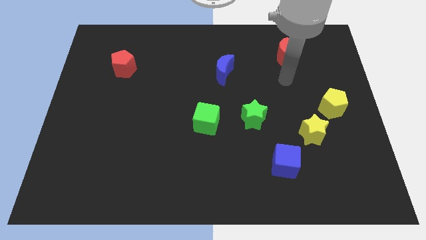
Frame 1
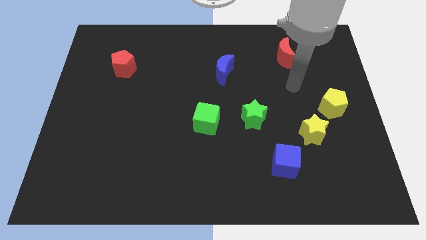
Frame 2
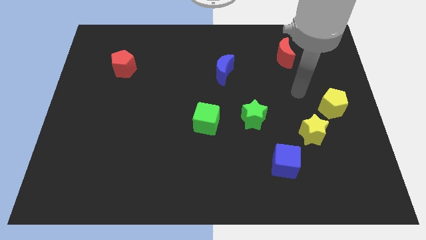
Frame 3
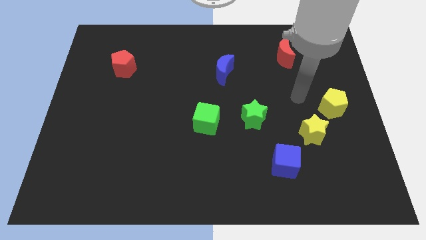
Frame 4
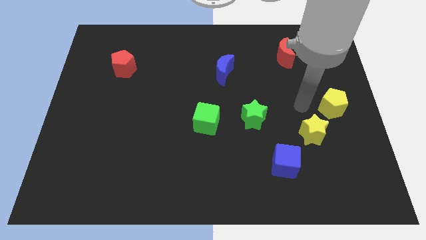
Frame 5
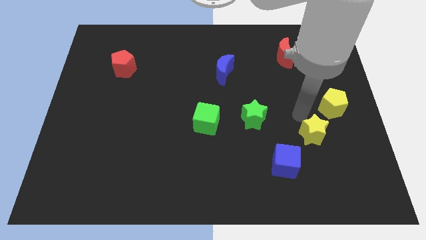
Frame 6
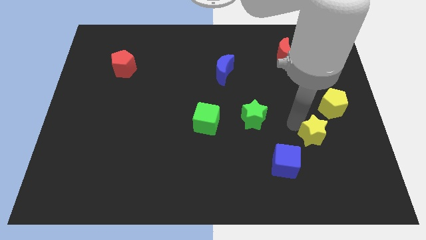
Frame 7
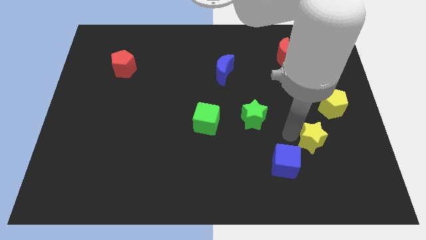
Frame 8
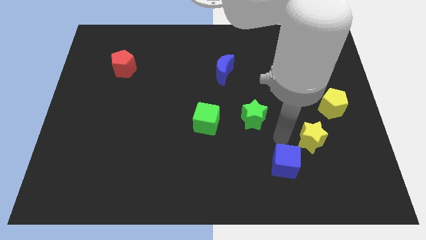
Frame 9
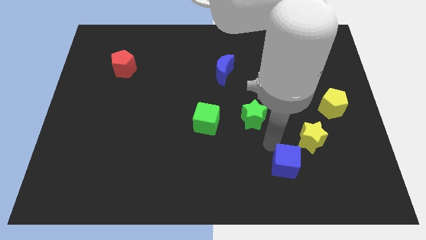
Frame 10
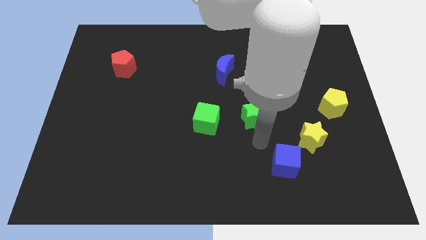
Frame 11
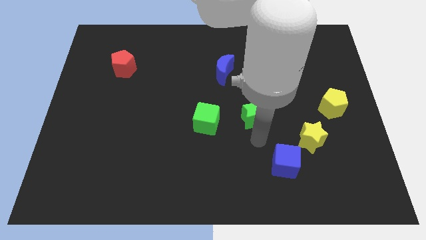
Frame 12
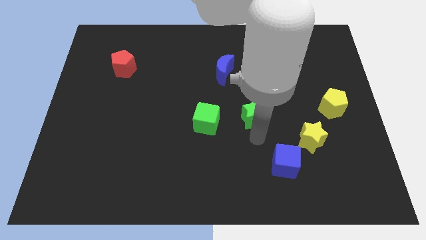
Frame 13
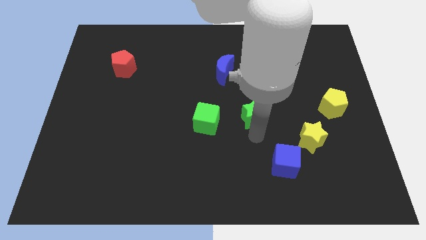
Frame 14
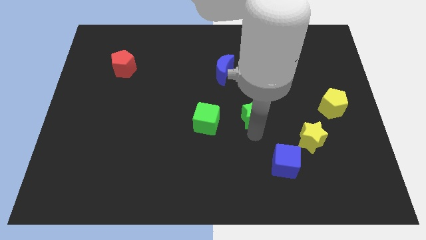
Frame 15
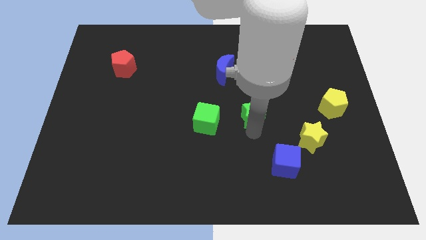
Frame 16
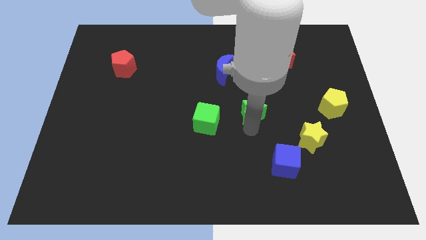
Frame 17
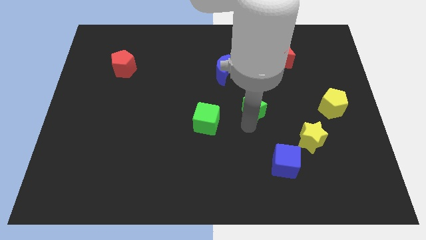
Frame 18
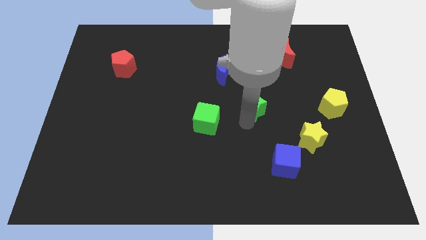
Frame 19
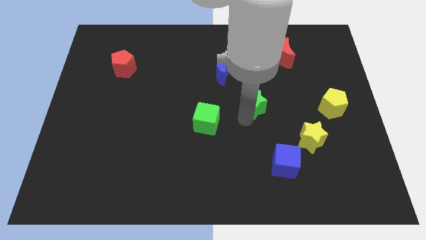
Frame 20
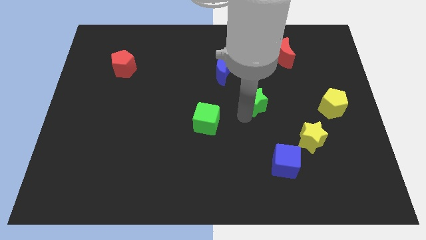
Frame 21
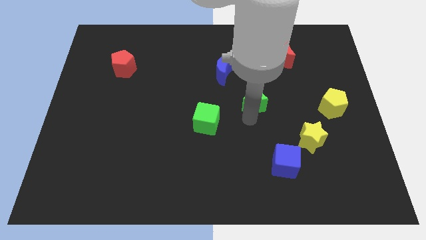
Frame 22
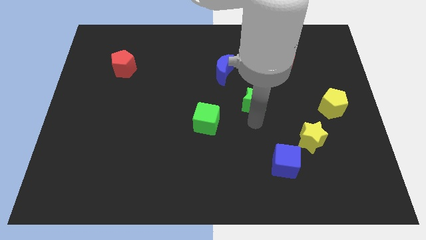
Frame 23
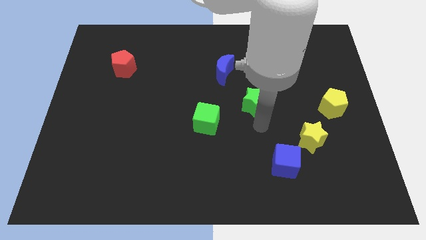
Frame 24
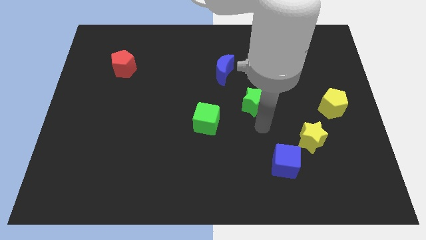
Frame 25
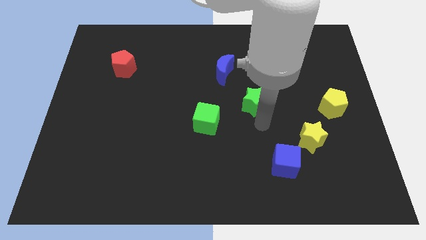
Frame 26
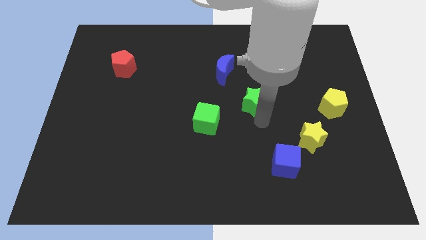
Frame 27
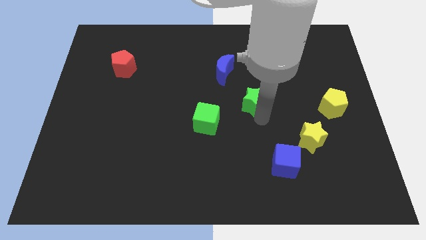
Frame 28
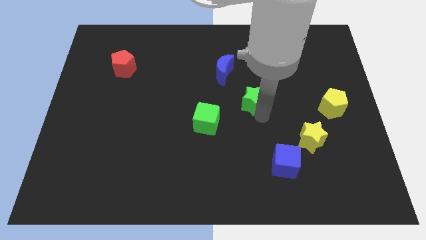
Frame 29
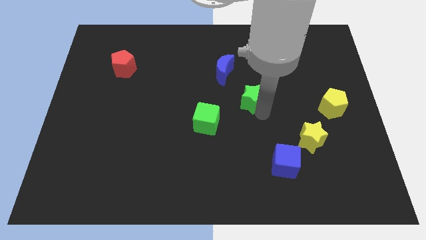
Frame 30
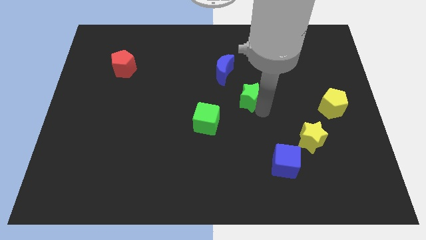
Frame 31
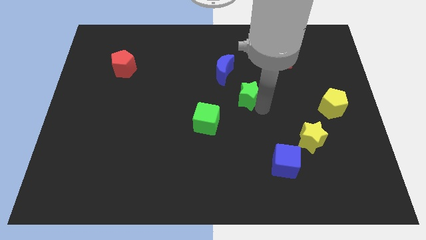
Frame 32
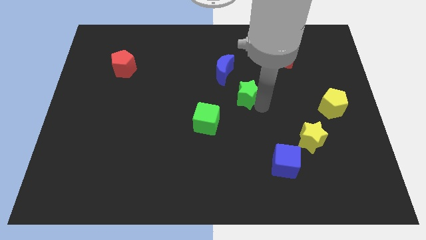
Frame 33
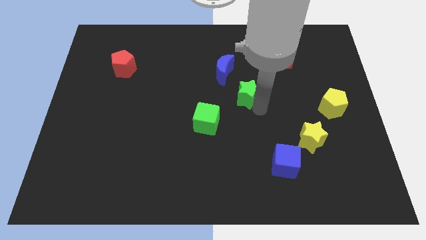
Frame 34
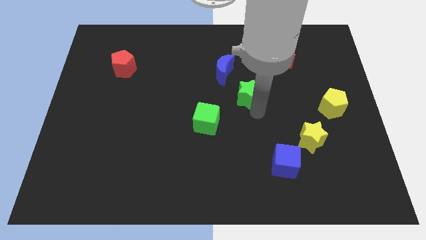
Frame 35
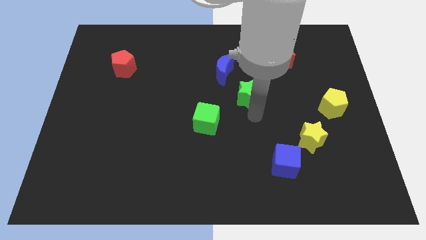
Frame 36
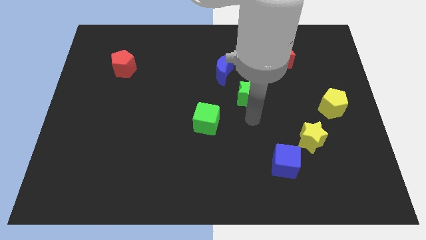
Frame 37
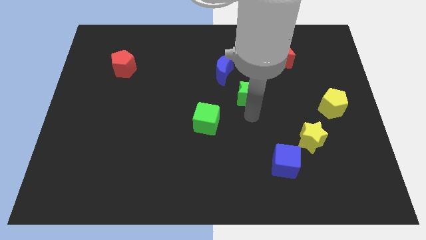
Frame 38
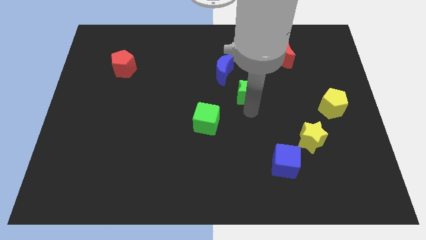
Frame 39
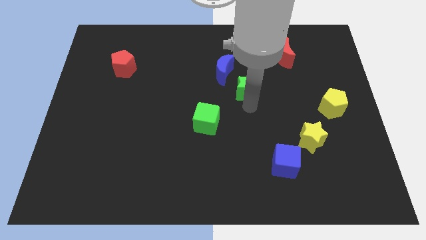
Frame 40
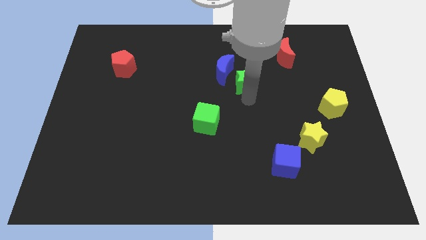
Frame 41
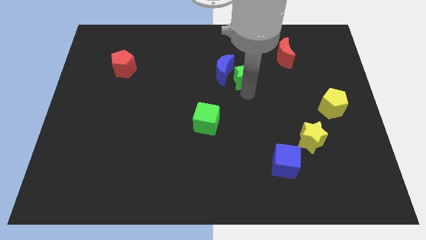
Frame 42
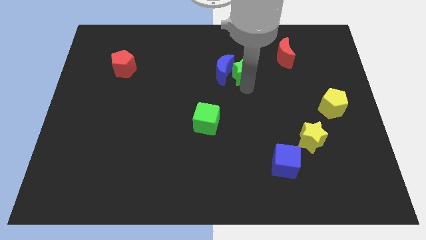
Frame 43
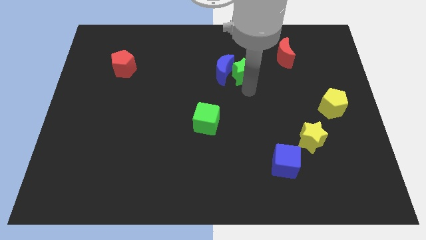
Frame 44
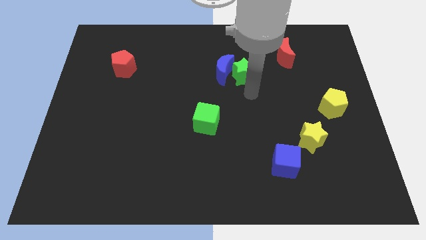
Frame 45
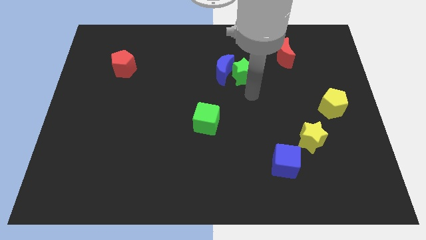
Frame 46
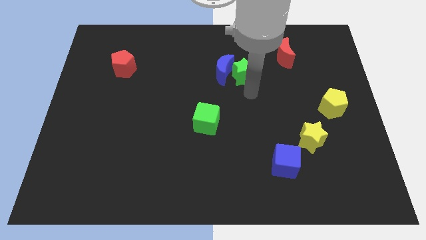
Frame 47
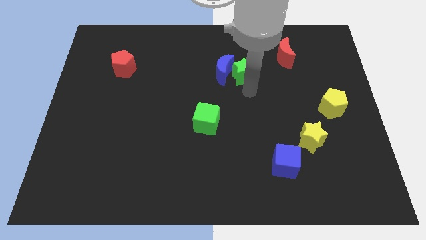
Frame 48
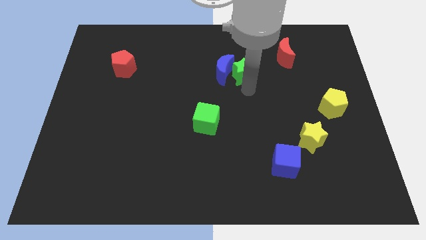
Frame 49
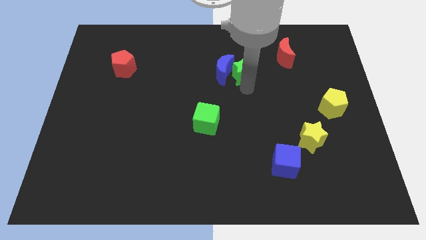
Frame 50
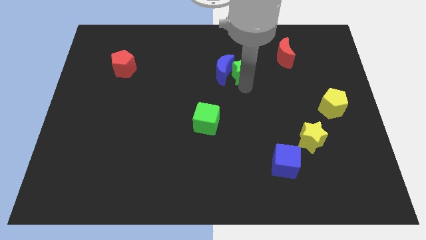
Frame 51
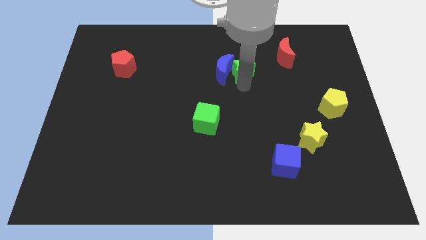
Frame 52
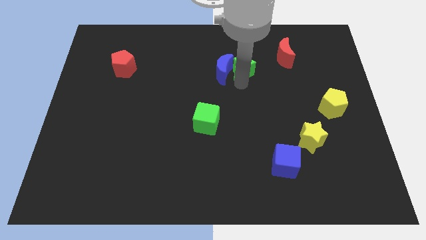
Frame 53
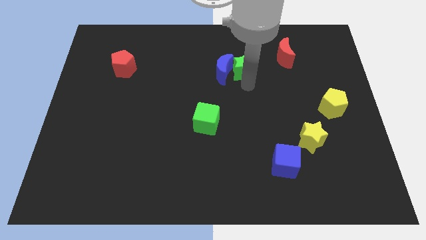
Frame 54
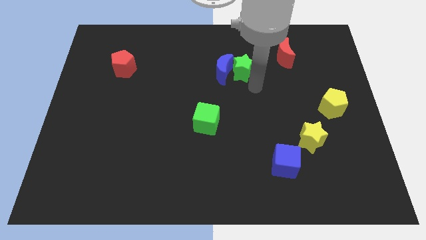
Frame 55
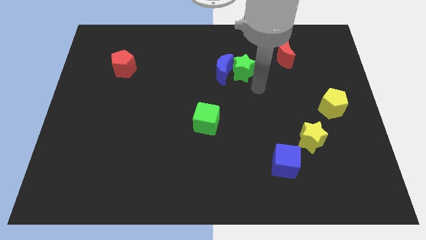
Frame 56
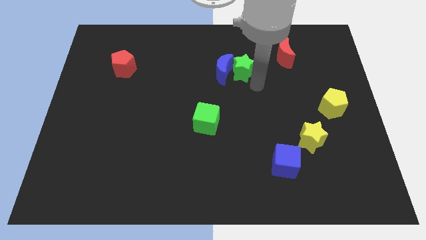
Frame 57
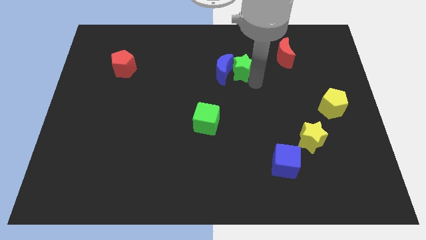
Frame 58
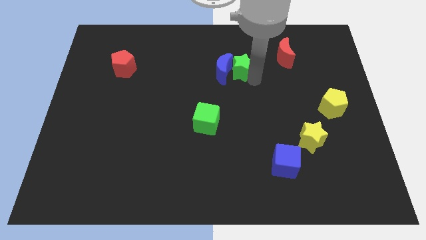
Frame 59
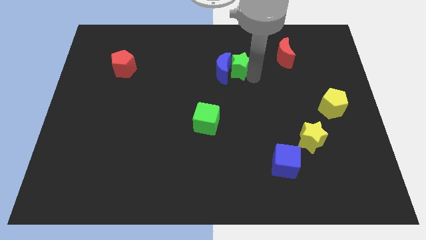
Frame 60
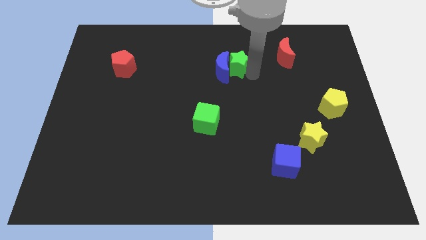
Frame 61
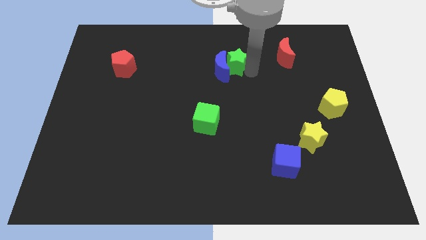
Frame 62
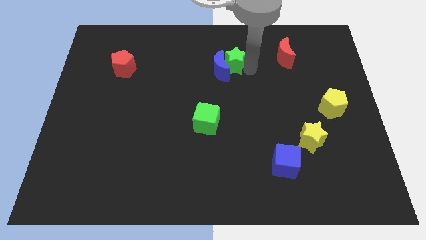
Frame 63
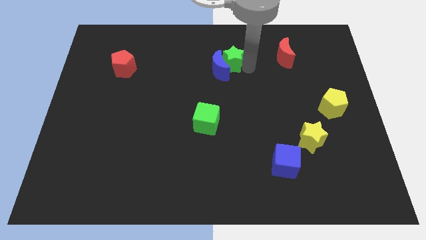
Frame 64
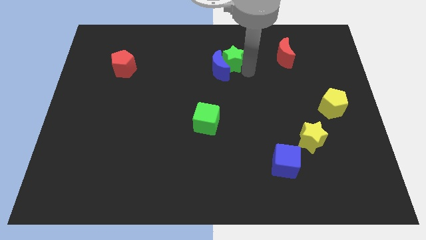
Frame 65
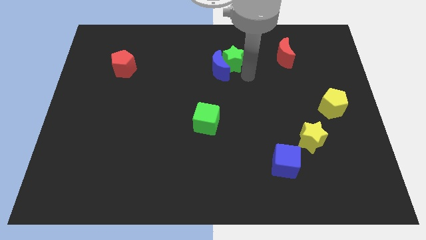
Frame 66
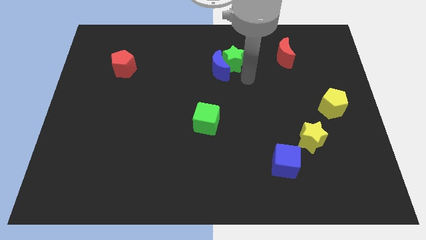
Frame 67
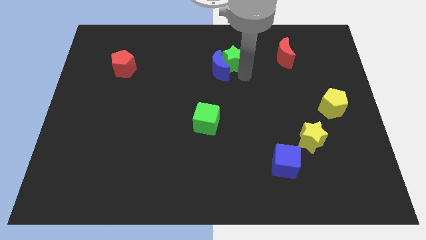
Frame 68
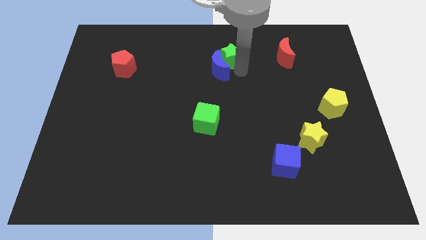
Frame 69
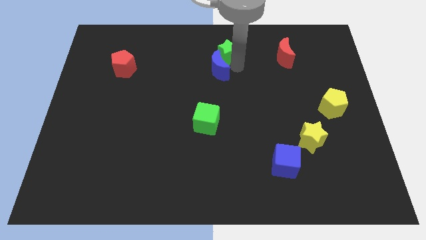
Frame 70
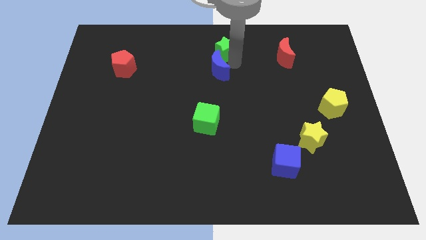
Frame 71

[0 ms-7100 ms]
push the green star to the towards your base

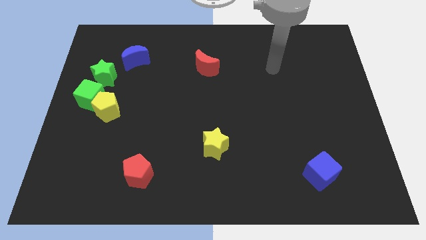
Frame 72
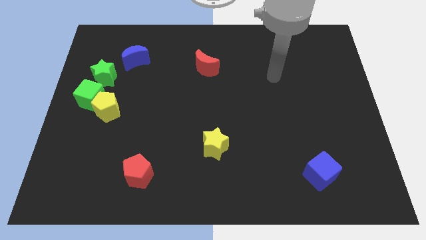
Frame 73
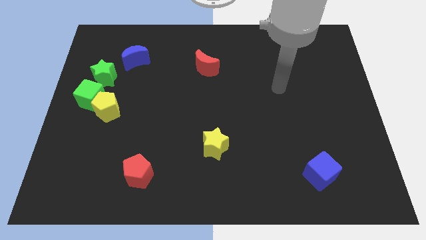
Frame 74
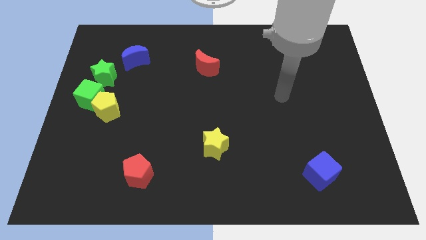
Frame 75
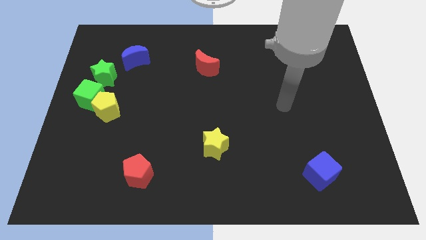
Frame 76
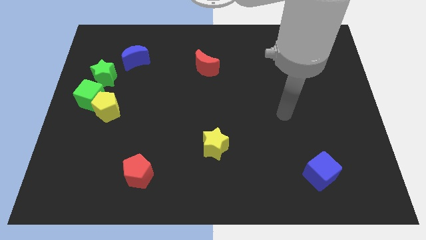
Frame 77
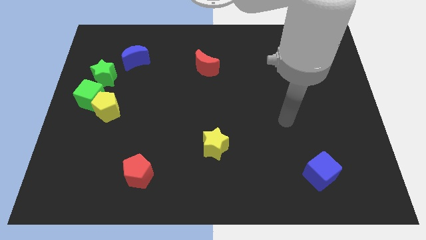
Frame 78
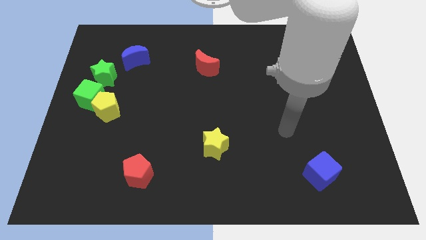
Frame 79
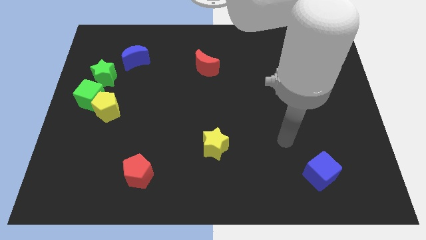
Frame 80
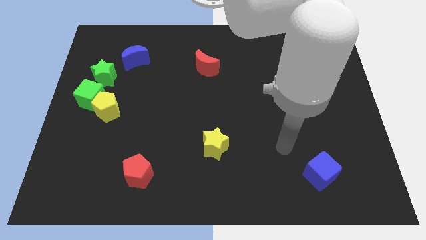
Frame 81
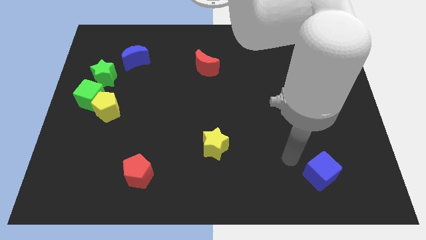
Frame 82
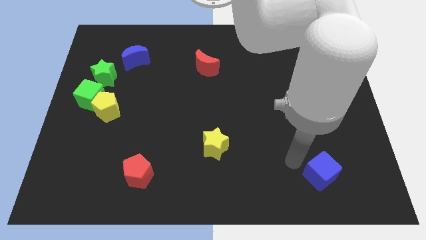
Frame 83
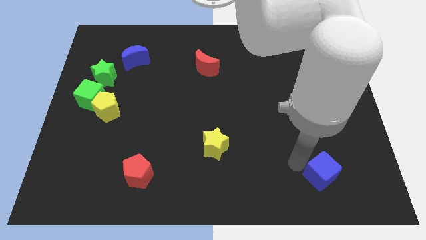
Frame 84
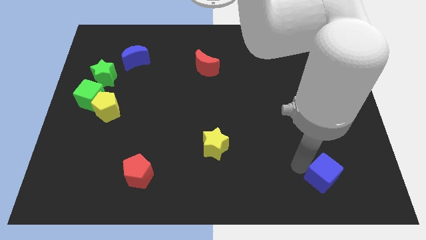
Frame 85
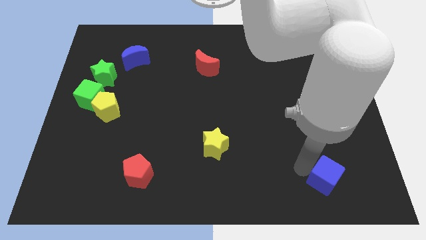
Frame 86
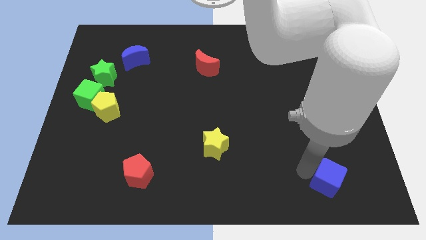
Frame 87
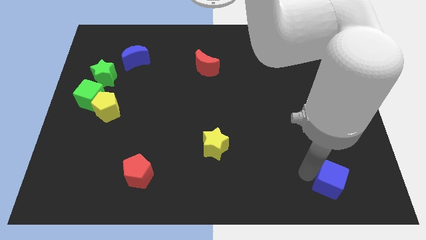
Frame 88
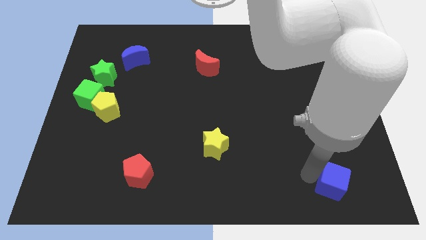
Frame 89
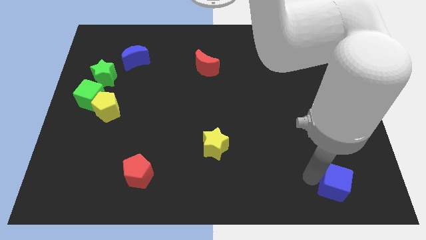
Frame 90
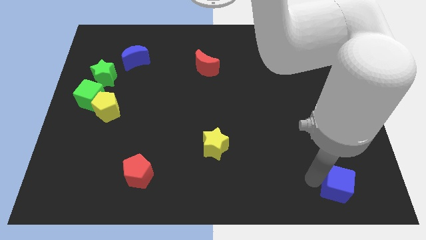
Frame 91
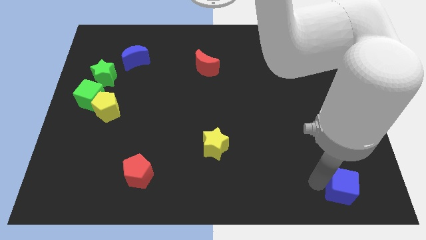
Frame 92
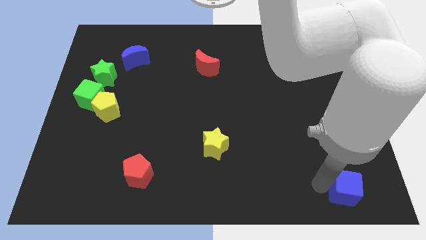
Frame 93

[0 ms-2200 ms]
put the blue cube to the bottom right of the board
